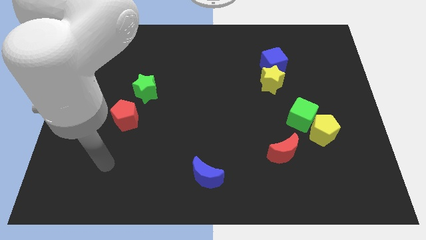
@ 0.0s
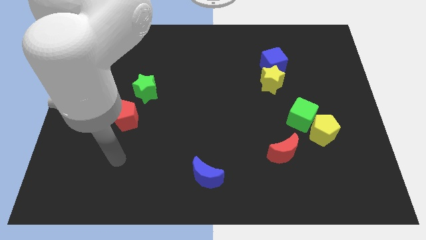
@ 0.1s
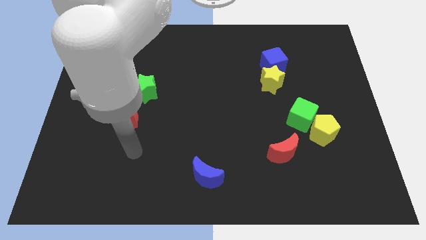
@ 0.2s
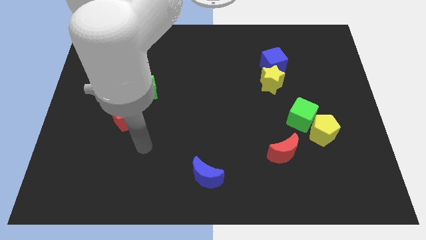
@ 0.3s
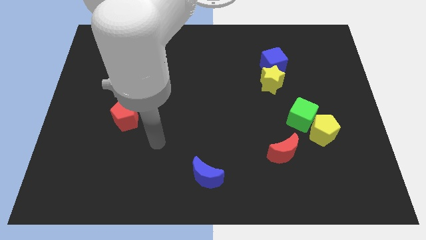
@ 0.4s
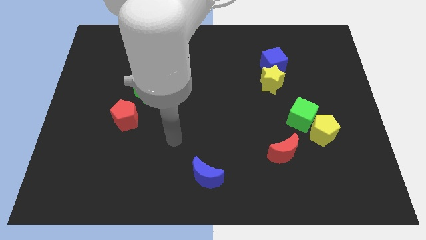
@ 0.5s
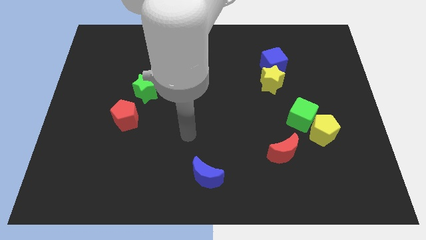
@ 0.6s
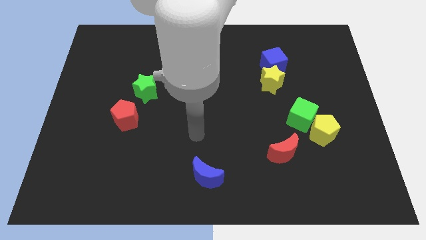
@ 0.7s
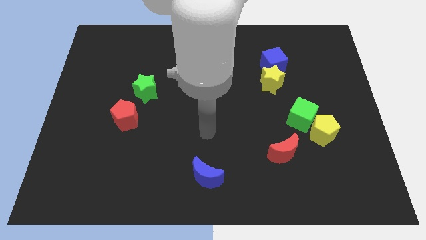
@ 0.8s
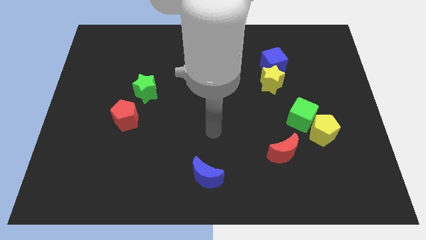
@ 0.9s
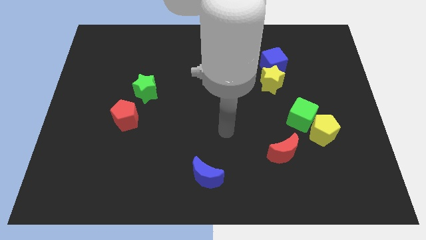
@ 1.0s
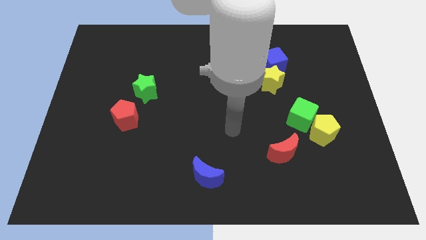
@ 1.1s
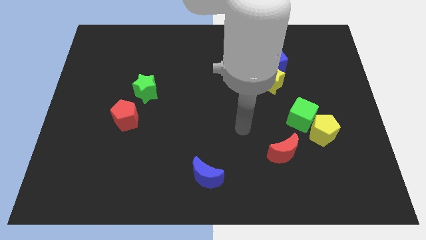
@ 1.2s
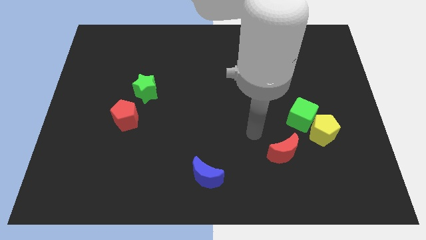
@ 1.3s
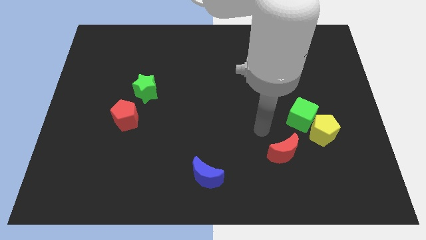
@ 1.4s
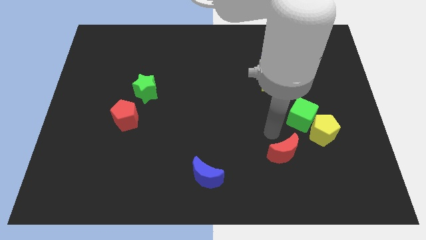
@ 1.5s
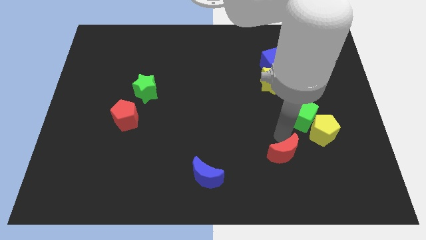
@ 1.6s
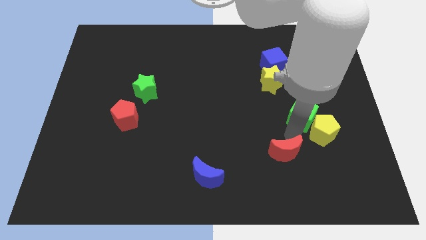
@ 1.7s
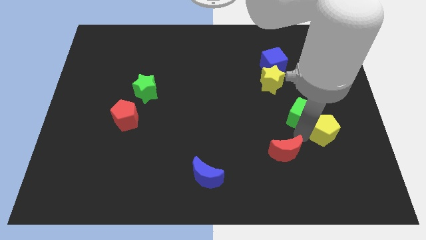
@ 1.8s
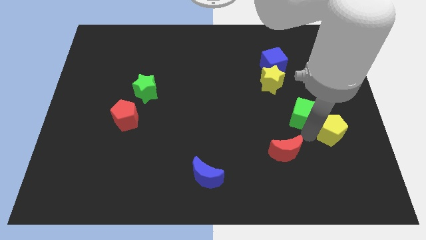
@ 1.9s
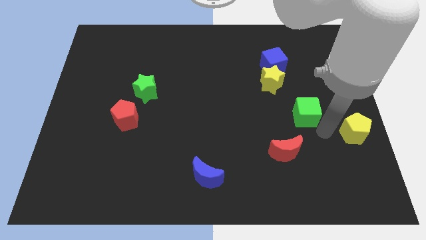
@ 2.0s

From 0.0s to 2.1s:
pull the green cube apart from the yellow pentagon

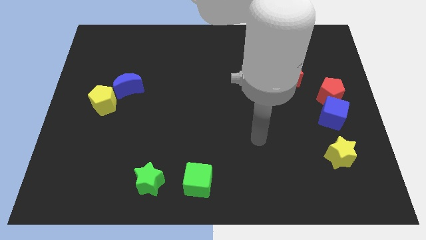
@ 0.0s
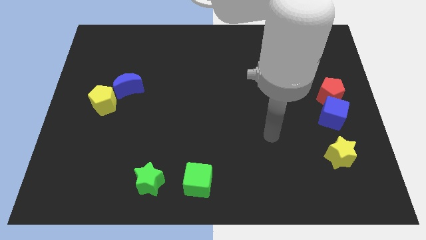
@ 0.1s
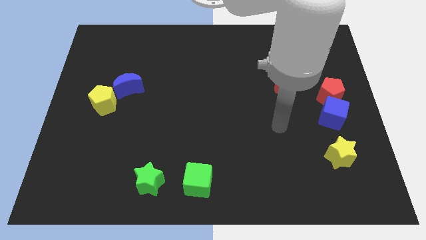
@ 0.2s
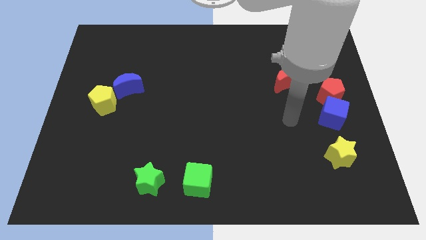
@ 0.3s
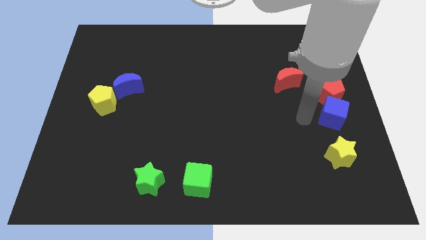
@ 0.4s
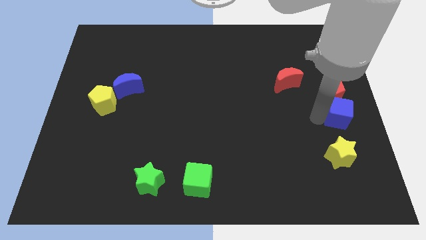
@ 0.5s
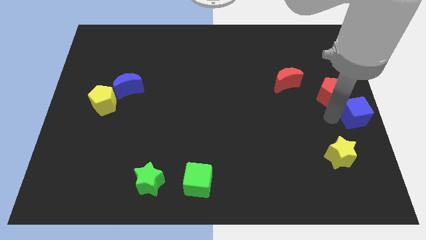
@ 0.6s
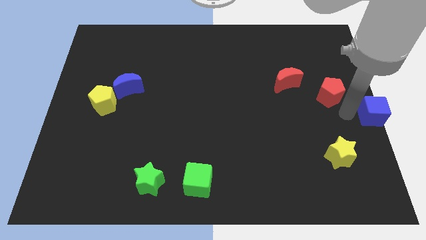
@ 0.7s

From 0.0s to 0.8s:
pull the red pentagon apart from the blue cube

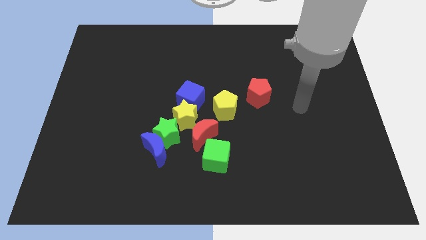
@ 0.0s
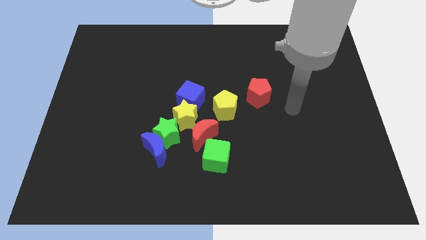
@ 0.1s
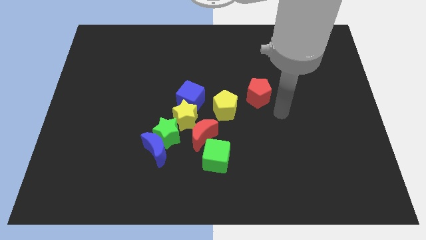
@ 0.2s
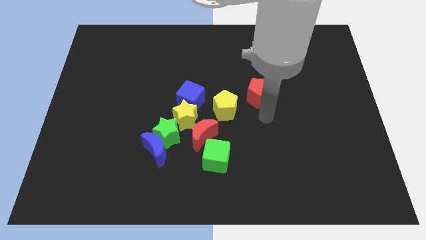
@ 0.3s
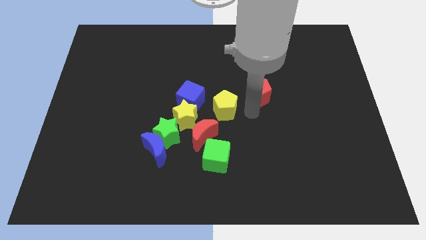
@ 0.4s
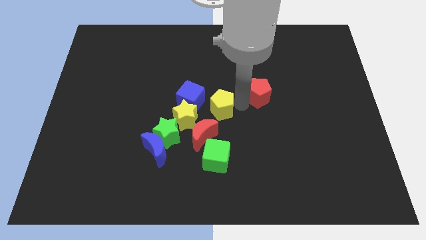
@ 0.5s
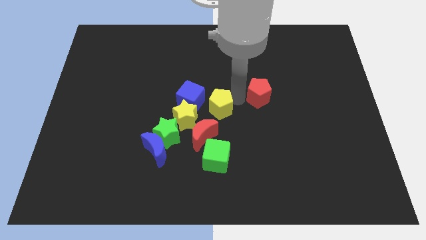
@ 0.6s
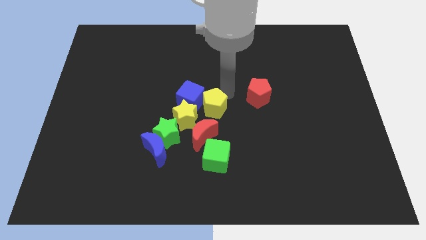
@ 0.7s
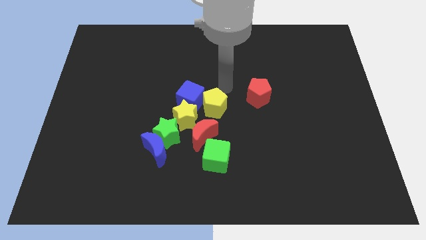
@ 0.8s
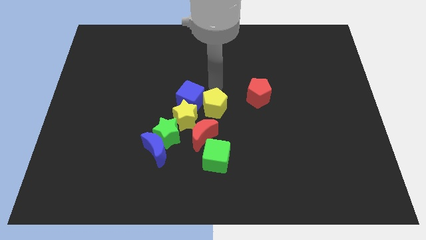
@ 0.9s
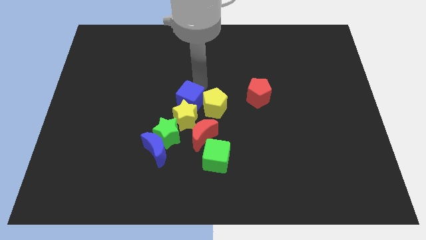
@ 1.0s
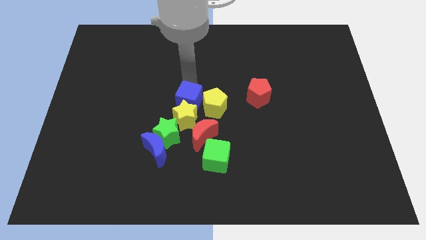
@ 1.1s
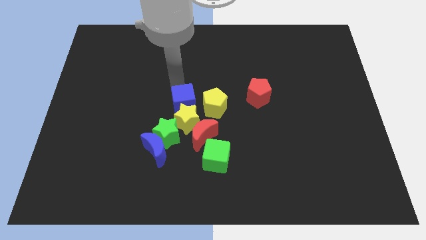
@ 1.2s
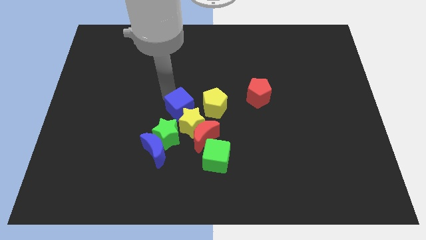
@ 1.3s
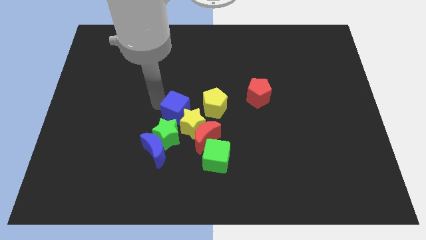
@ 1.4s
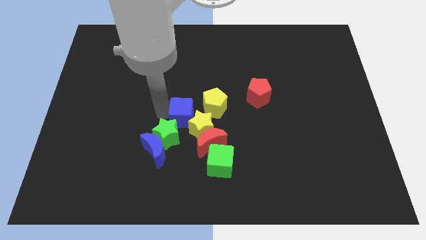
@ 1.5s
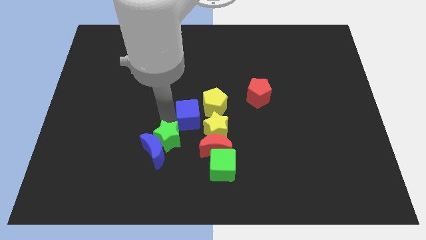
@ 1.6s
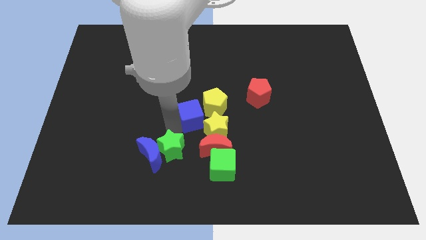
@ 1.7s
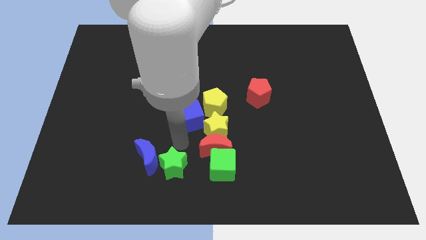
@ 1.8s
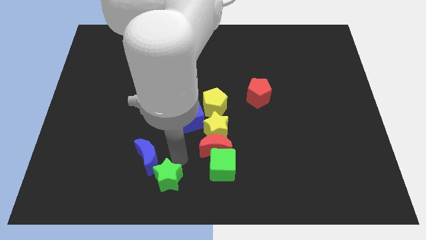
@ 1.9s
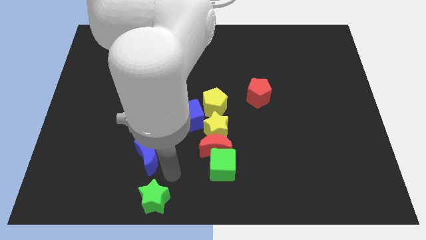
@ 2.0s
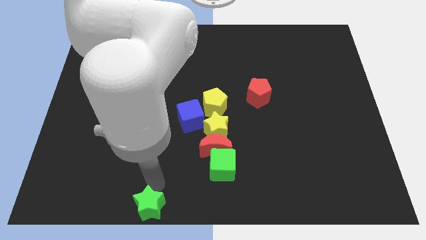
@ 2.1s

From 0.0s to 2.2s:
pull the blue moon apart from the green star

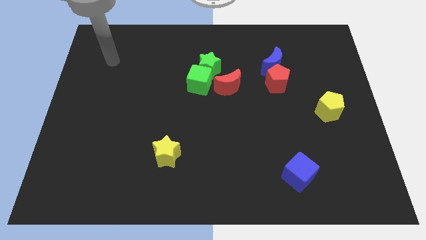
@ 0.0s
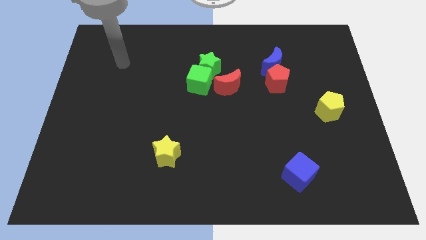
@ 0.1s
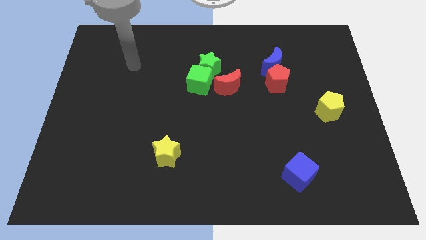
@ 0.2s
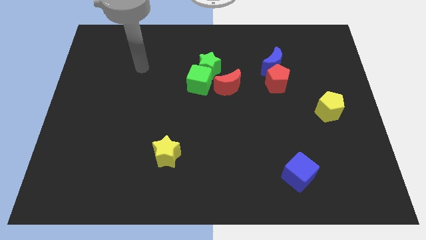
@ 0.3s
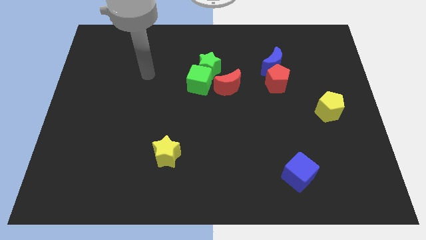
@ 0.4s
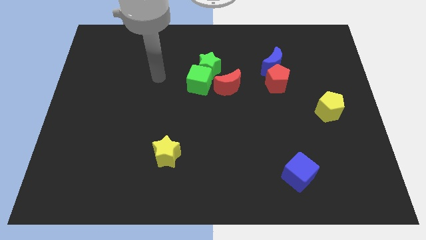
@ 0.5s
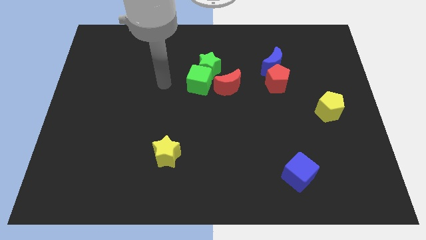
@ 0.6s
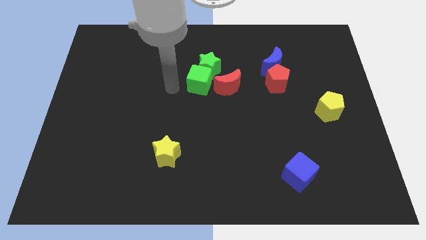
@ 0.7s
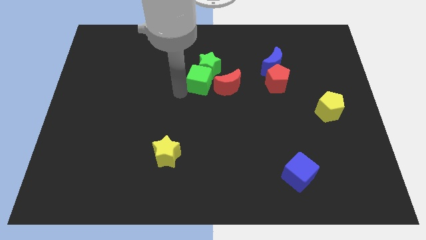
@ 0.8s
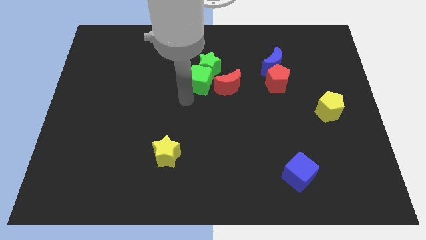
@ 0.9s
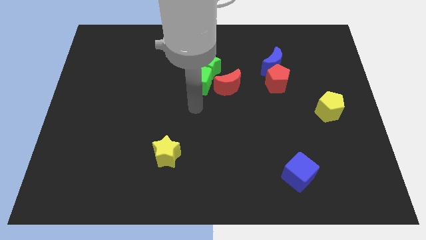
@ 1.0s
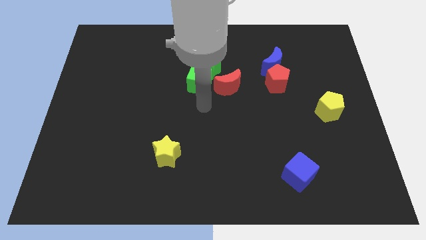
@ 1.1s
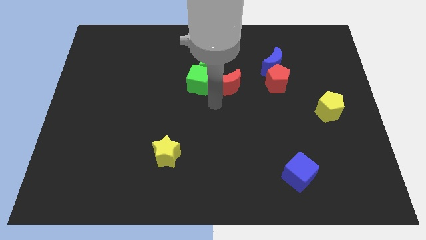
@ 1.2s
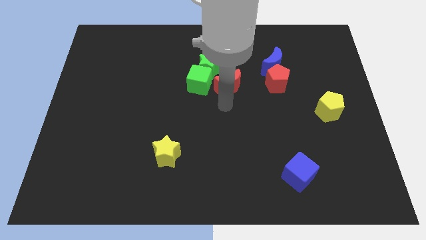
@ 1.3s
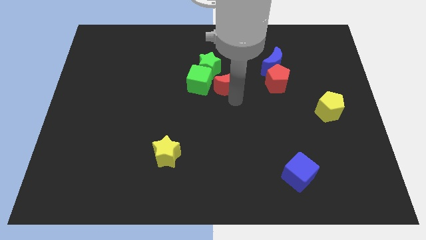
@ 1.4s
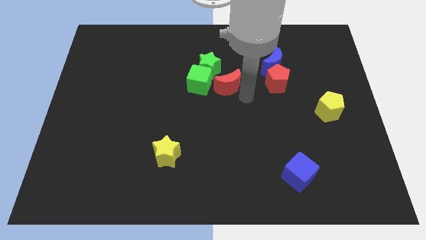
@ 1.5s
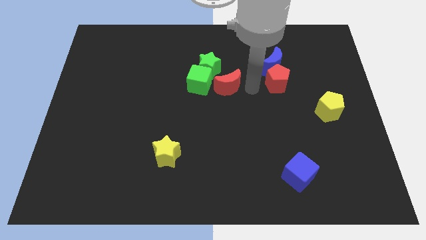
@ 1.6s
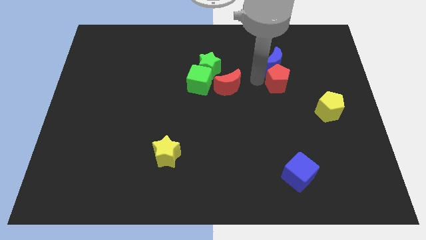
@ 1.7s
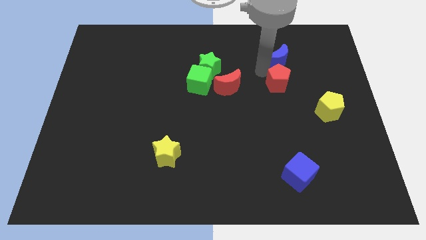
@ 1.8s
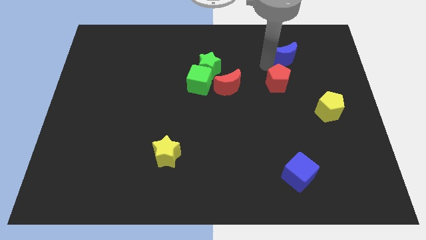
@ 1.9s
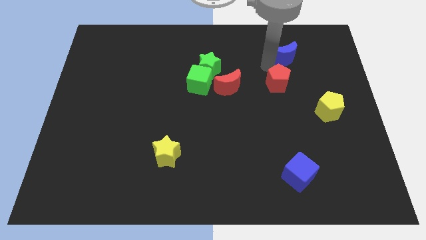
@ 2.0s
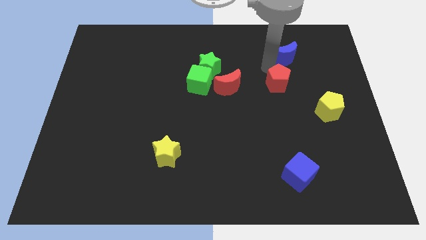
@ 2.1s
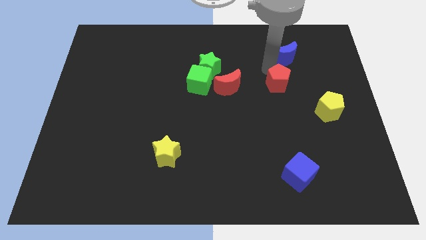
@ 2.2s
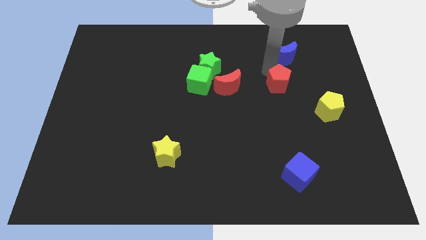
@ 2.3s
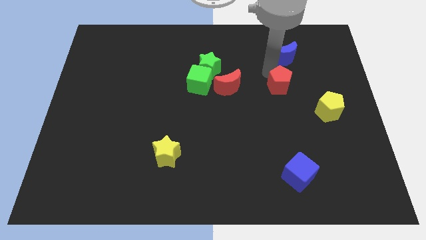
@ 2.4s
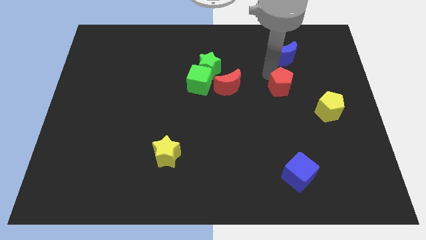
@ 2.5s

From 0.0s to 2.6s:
separate the red pentagon from the blue moon

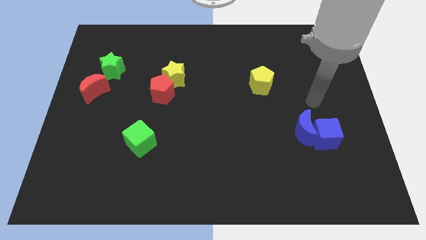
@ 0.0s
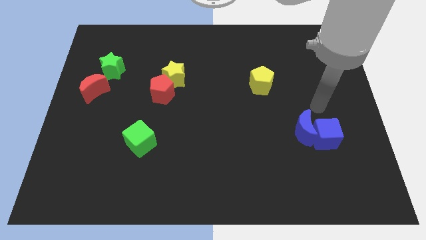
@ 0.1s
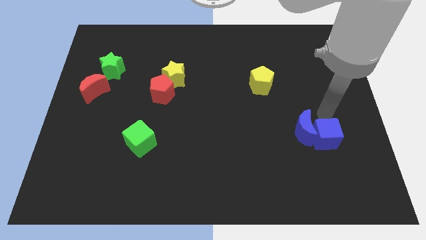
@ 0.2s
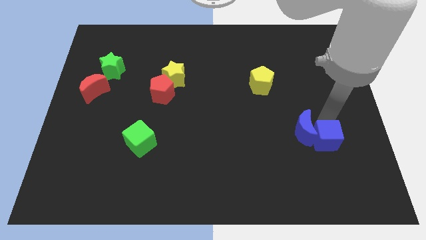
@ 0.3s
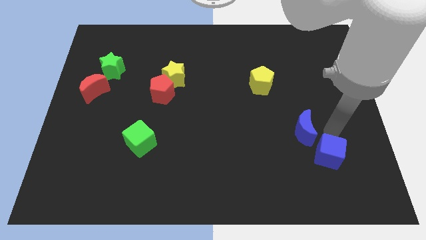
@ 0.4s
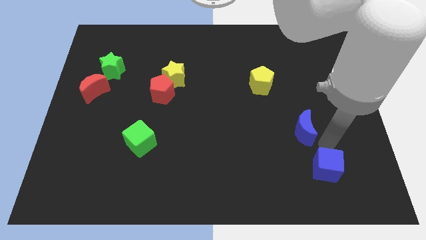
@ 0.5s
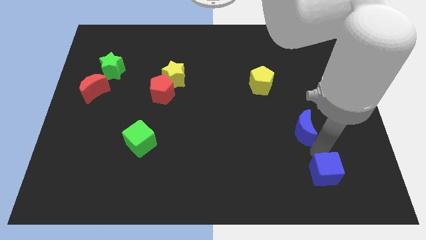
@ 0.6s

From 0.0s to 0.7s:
move the blue moon away from the blue cube

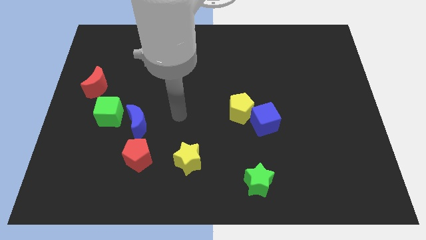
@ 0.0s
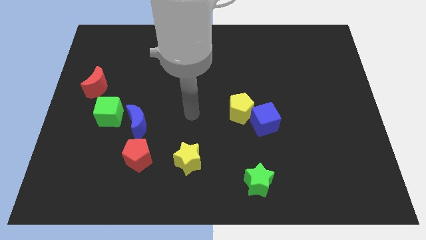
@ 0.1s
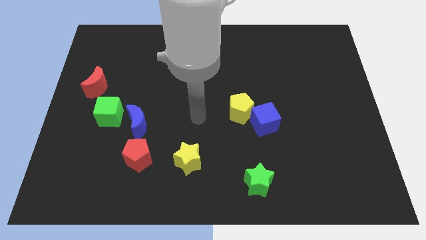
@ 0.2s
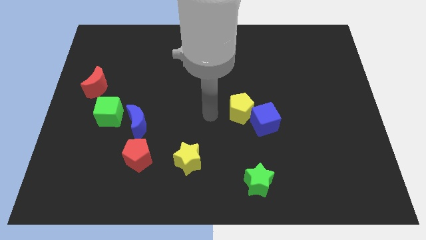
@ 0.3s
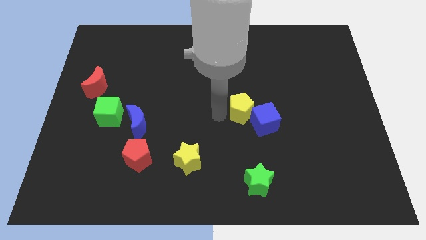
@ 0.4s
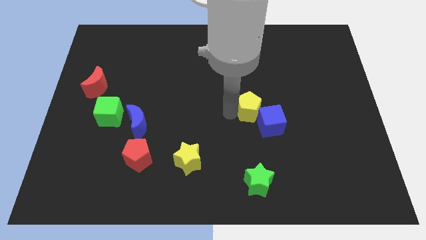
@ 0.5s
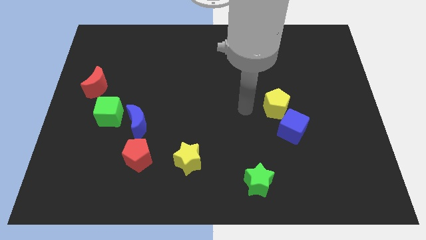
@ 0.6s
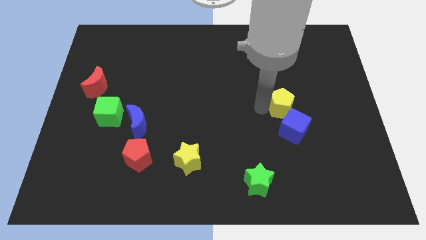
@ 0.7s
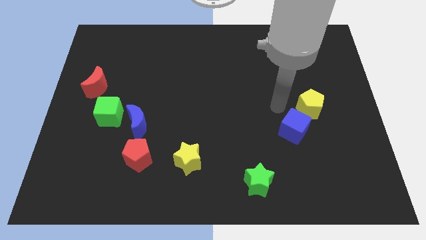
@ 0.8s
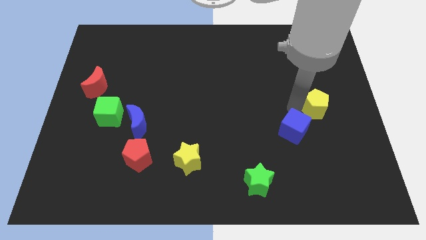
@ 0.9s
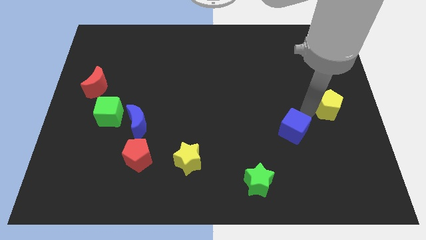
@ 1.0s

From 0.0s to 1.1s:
pull the blue cube apart from the yellow pentagon

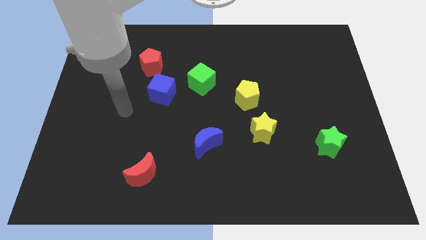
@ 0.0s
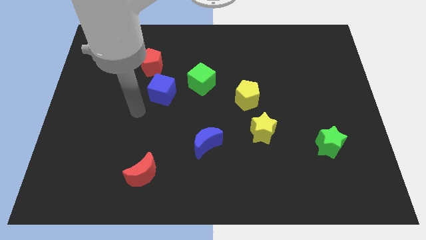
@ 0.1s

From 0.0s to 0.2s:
separate the red pentagon from the blue cube
